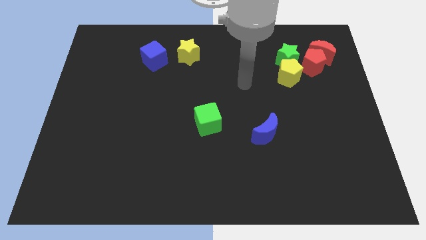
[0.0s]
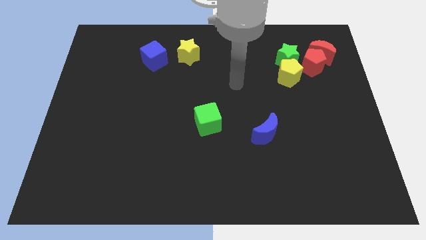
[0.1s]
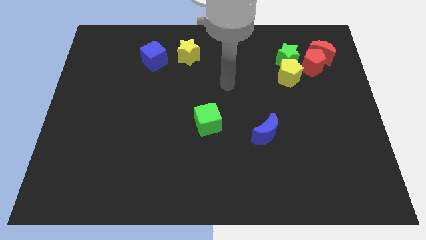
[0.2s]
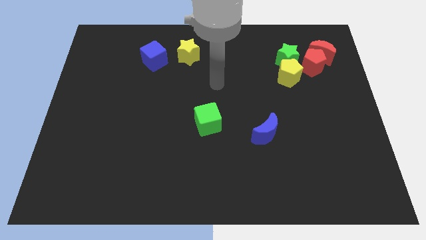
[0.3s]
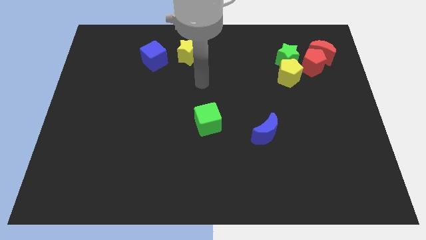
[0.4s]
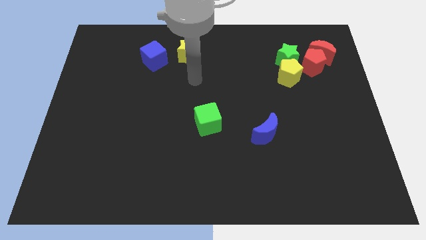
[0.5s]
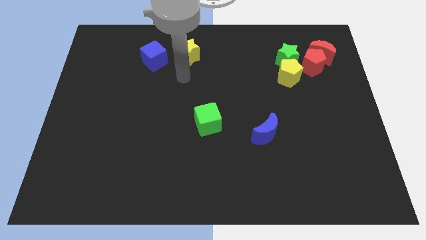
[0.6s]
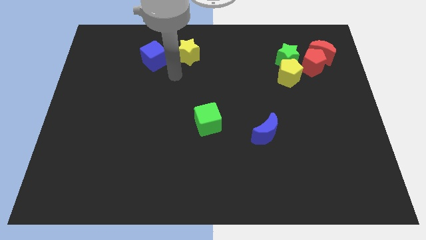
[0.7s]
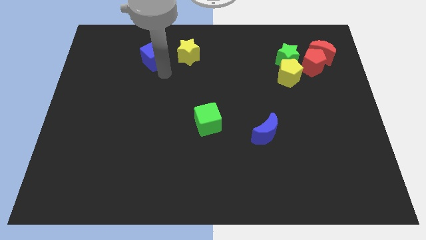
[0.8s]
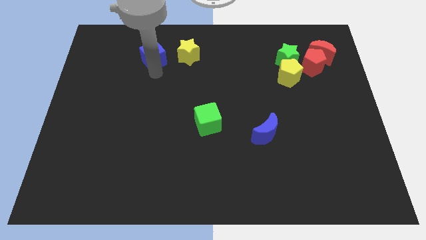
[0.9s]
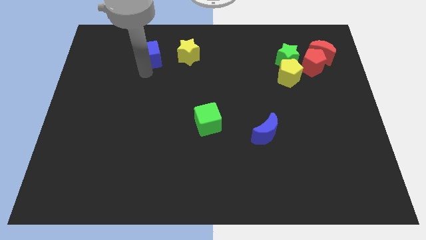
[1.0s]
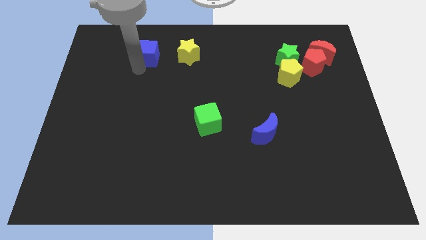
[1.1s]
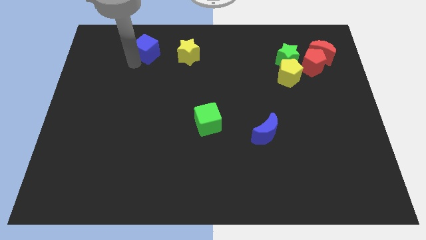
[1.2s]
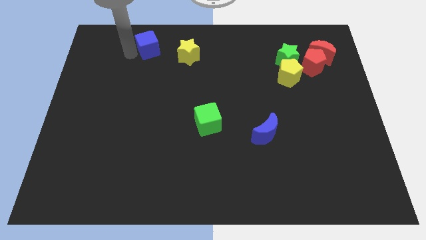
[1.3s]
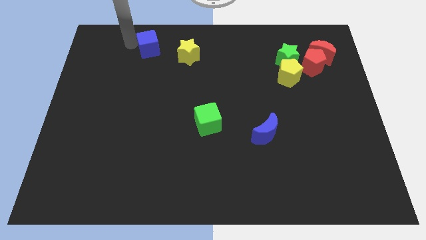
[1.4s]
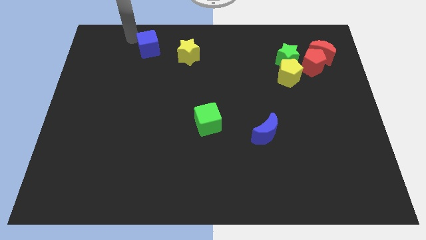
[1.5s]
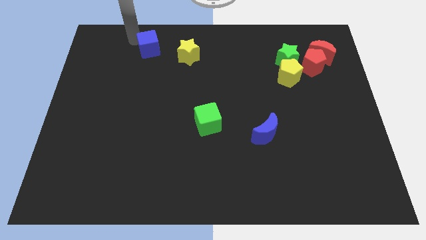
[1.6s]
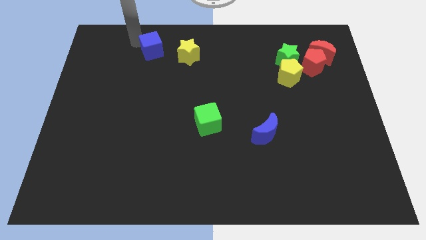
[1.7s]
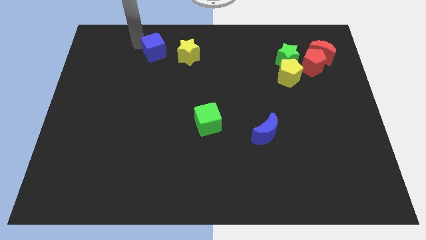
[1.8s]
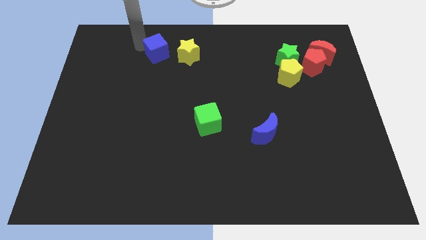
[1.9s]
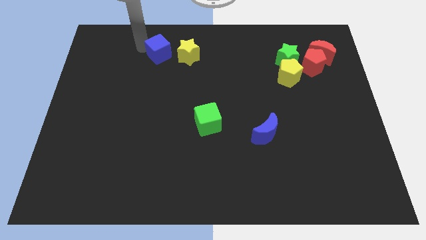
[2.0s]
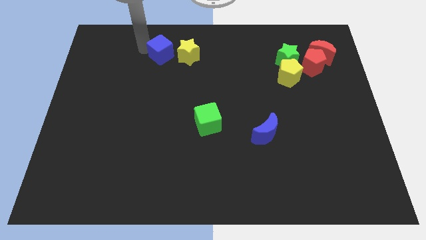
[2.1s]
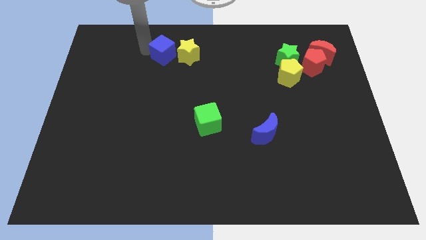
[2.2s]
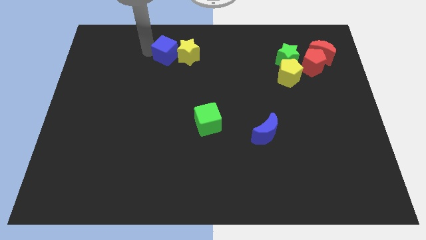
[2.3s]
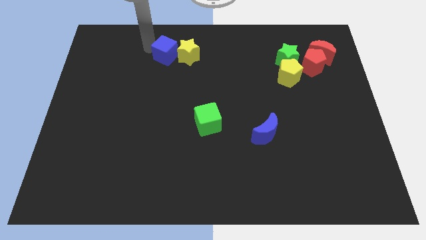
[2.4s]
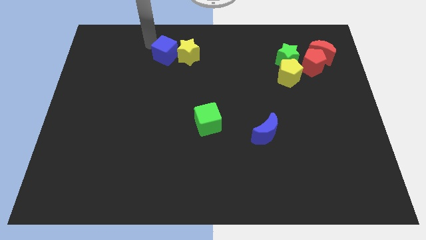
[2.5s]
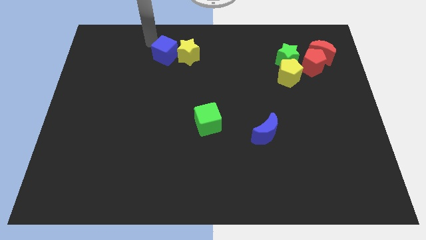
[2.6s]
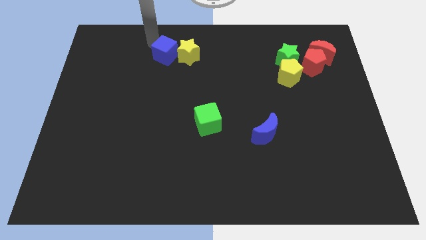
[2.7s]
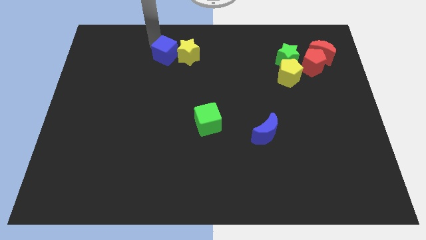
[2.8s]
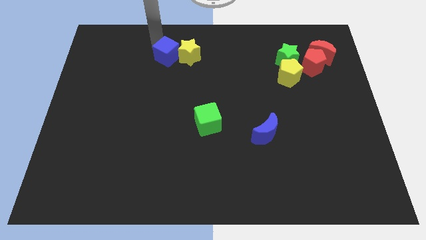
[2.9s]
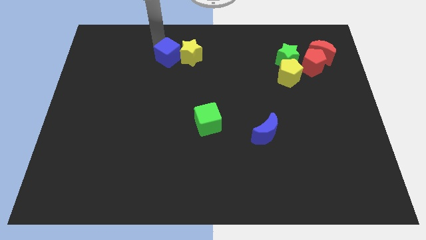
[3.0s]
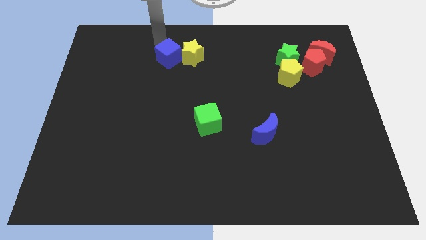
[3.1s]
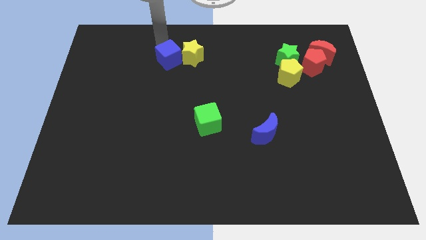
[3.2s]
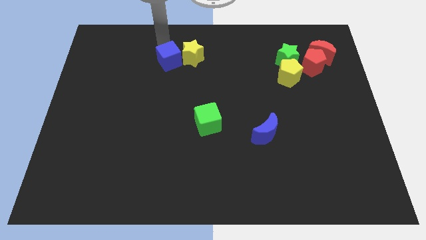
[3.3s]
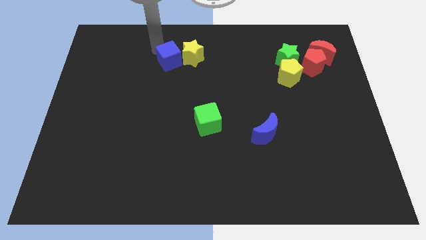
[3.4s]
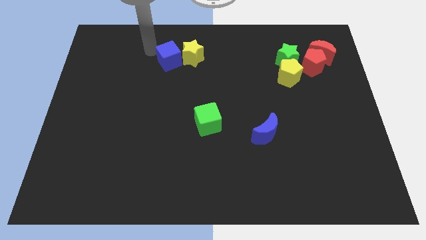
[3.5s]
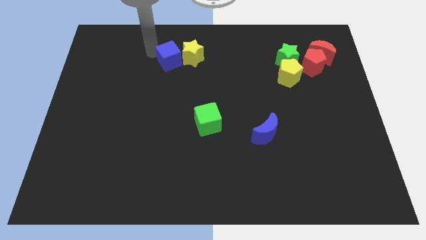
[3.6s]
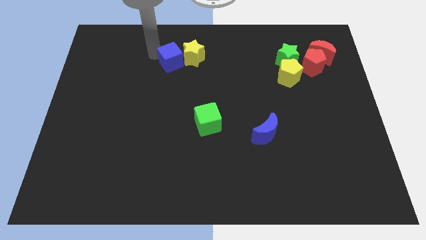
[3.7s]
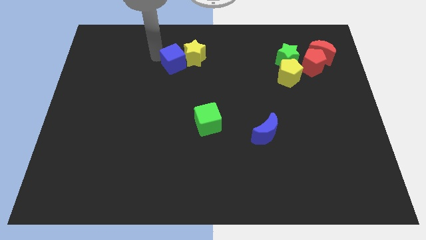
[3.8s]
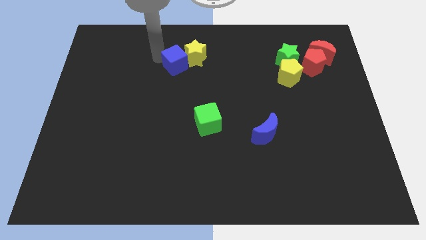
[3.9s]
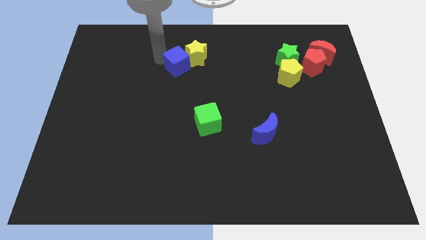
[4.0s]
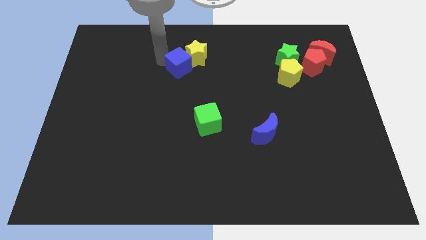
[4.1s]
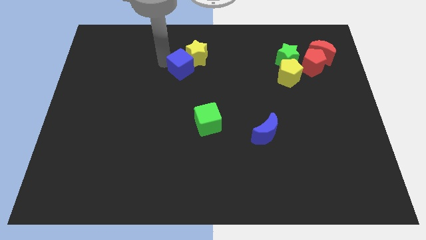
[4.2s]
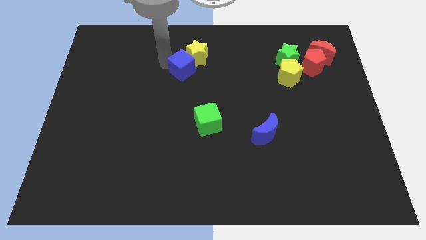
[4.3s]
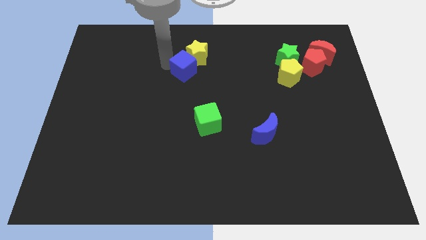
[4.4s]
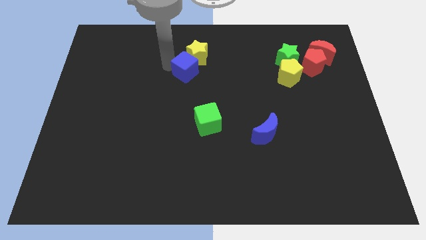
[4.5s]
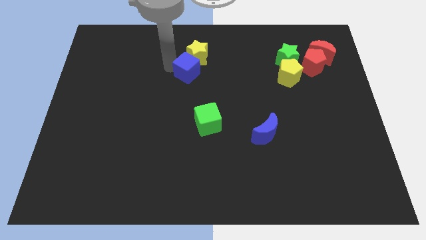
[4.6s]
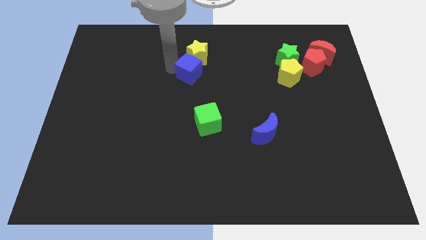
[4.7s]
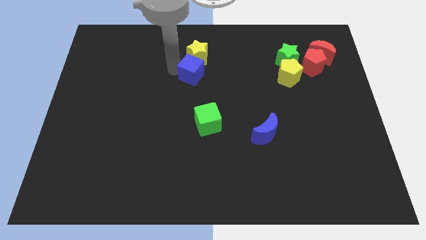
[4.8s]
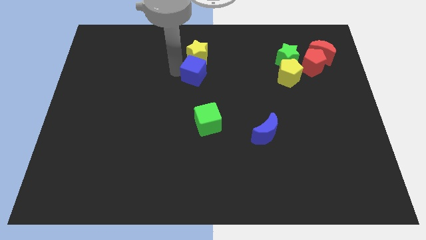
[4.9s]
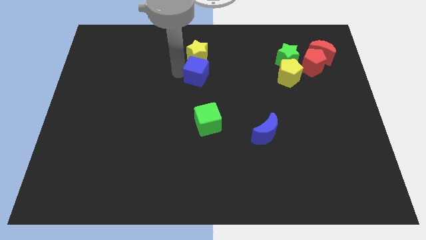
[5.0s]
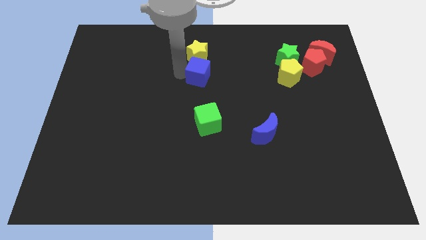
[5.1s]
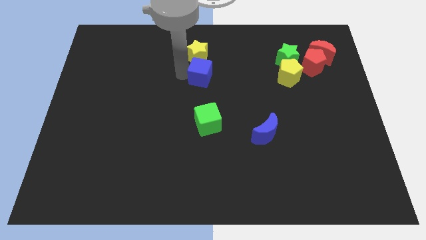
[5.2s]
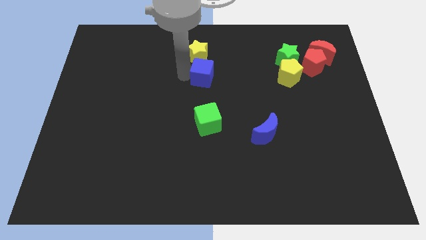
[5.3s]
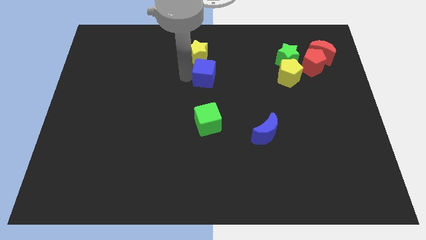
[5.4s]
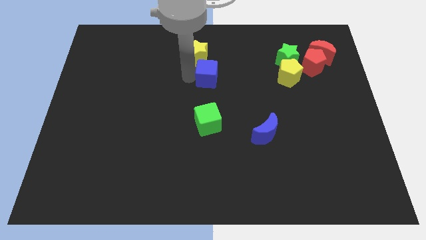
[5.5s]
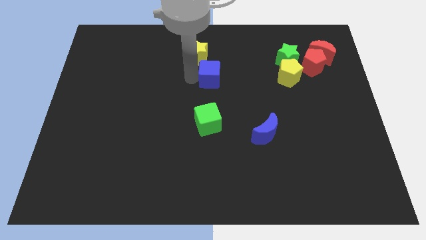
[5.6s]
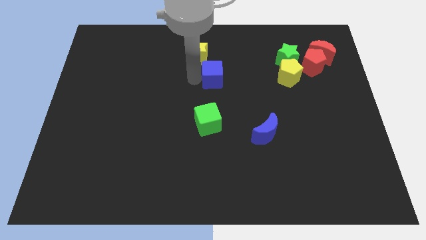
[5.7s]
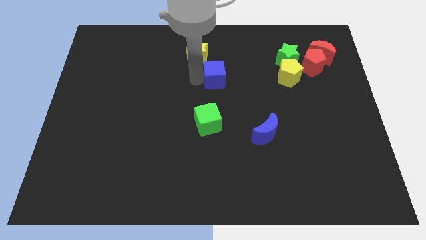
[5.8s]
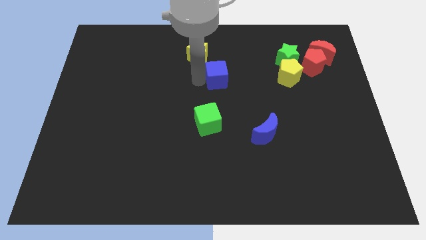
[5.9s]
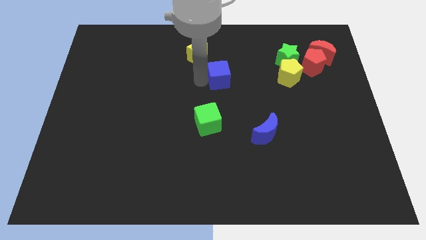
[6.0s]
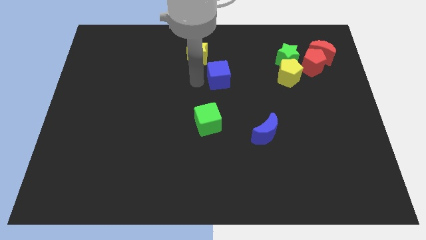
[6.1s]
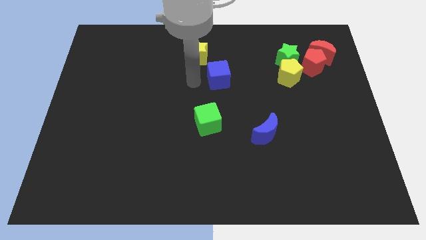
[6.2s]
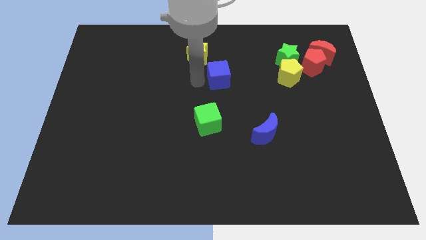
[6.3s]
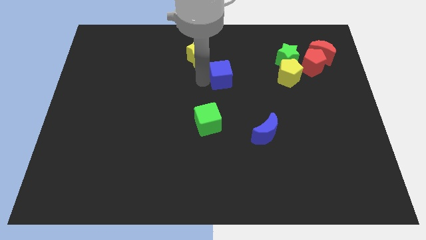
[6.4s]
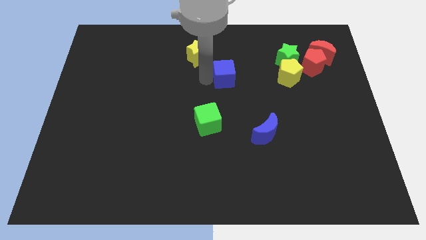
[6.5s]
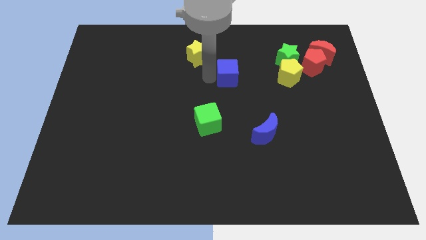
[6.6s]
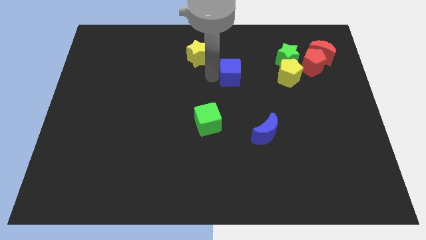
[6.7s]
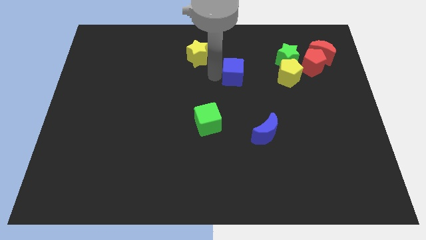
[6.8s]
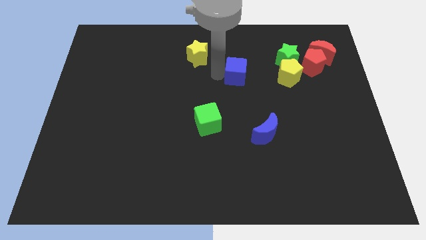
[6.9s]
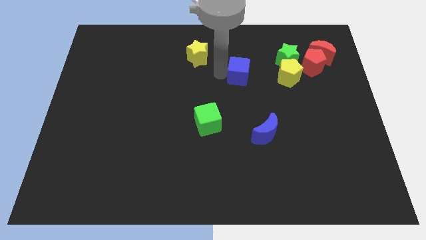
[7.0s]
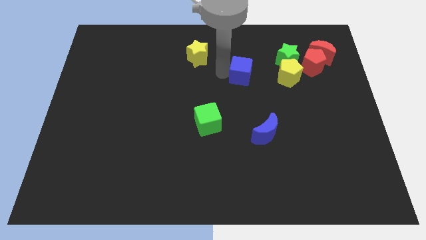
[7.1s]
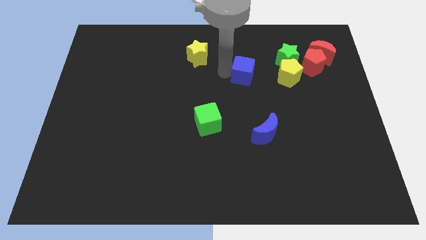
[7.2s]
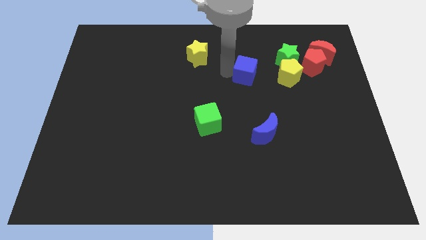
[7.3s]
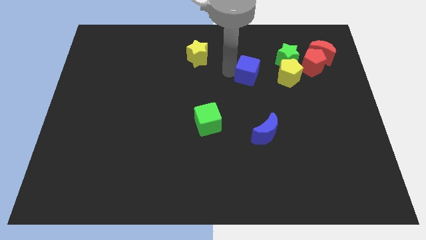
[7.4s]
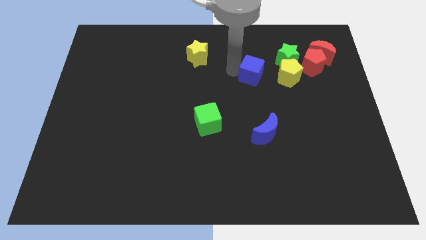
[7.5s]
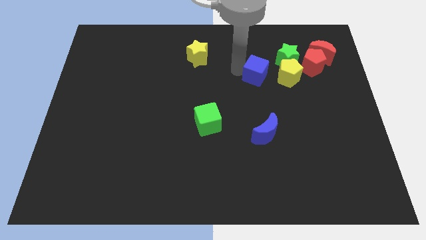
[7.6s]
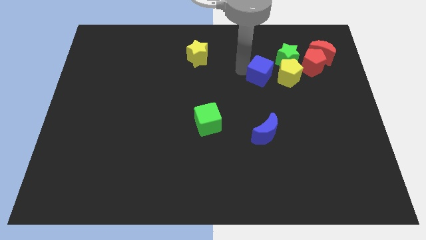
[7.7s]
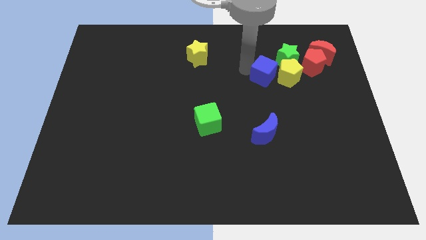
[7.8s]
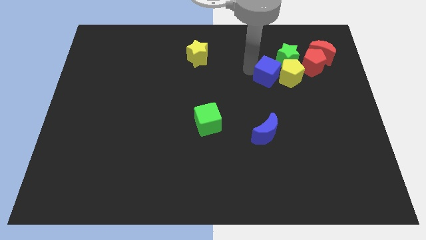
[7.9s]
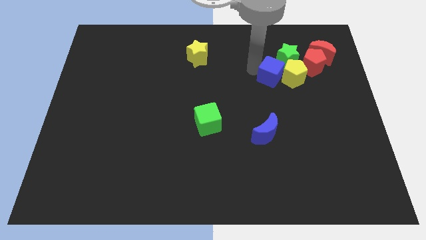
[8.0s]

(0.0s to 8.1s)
put the blue cube below the green star
